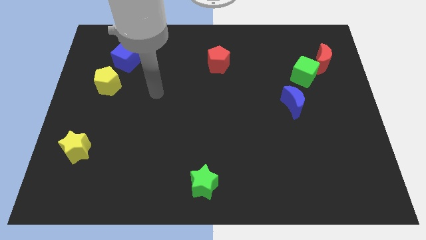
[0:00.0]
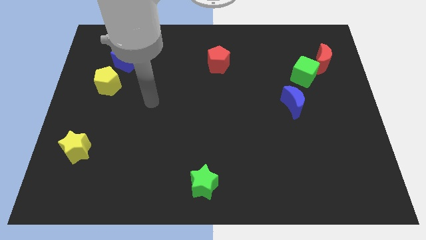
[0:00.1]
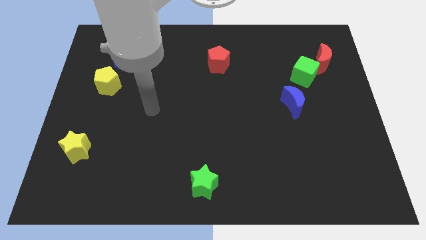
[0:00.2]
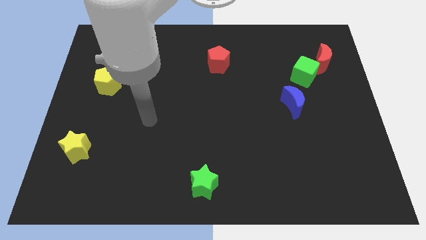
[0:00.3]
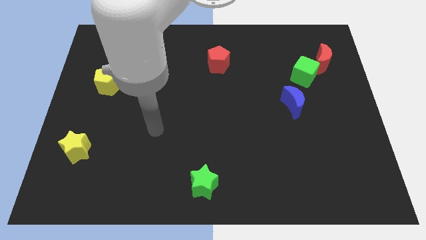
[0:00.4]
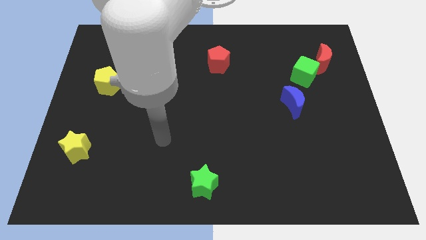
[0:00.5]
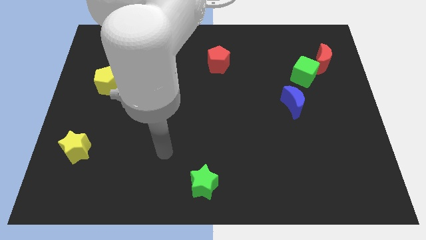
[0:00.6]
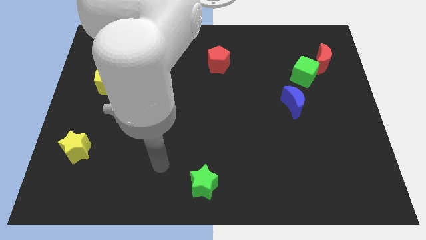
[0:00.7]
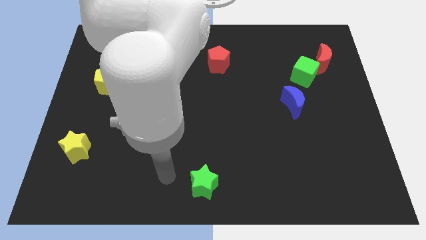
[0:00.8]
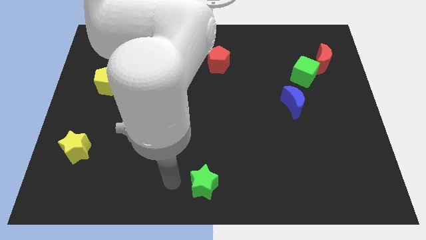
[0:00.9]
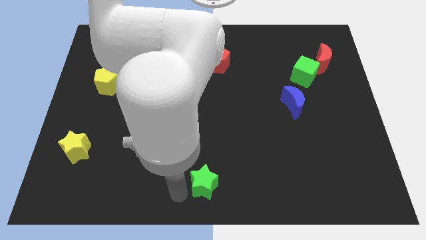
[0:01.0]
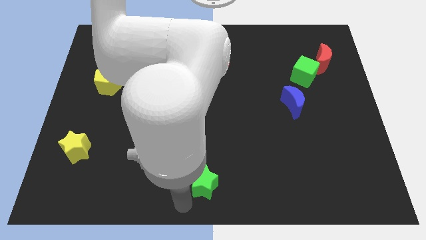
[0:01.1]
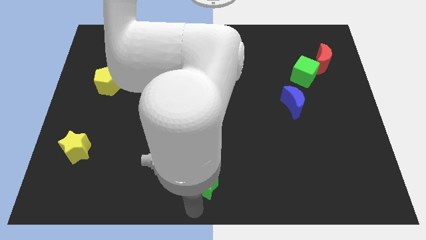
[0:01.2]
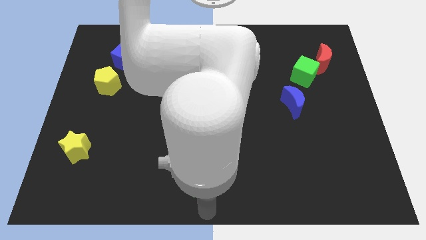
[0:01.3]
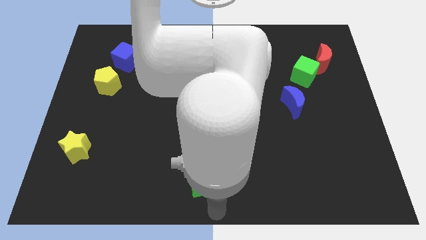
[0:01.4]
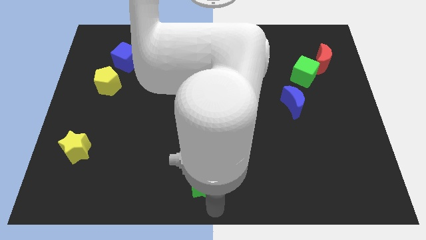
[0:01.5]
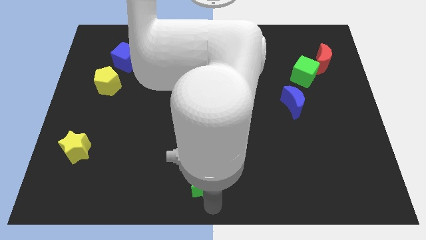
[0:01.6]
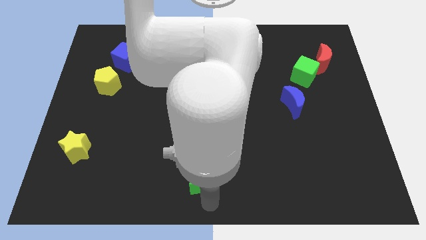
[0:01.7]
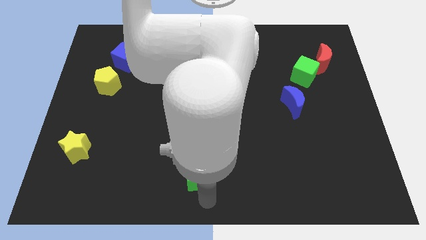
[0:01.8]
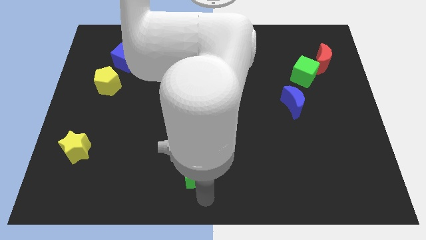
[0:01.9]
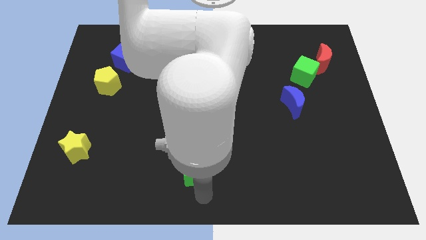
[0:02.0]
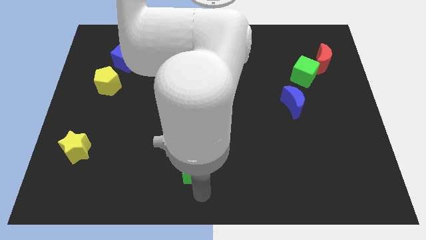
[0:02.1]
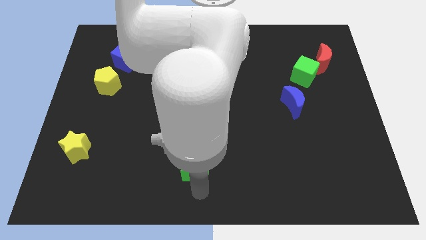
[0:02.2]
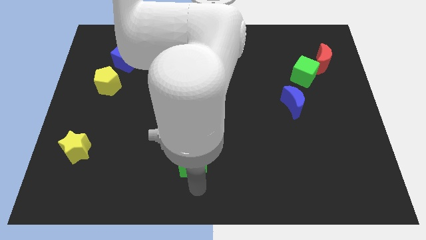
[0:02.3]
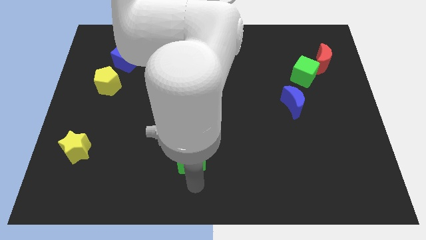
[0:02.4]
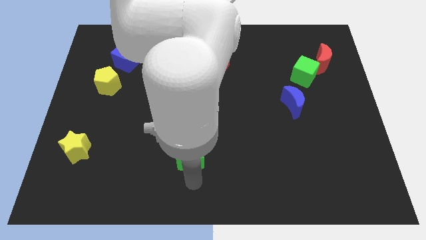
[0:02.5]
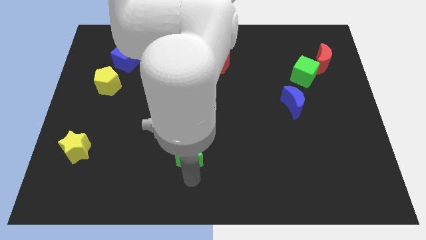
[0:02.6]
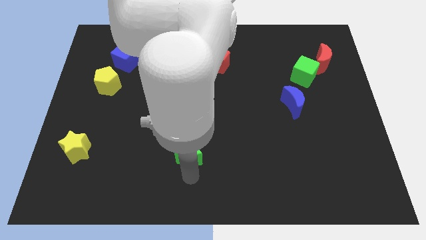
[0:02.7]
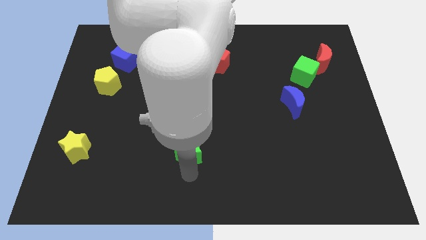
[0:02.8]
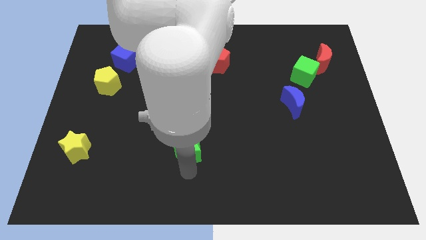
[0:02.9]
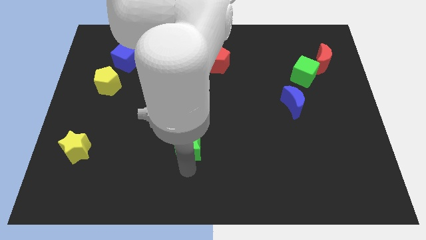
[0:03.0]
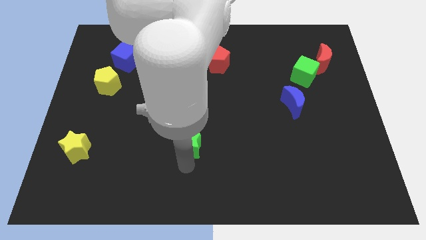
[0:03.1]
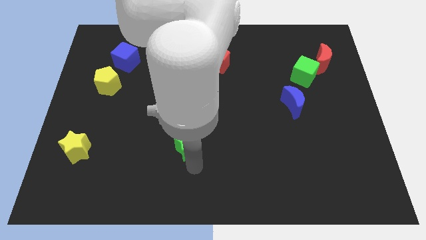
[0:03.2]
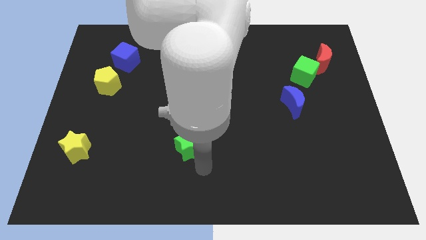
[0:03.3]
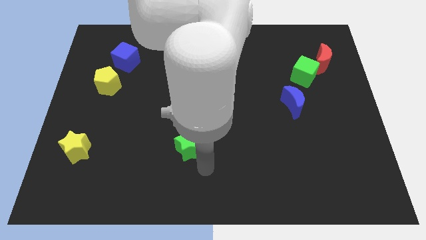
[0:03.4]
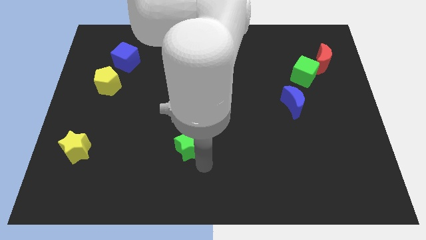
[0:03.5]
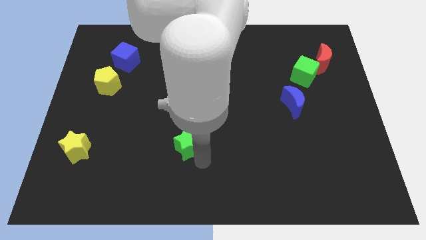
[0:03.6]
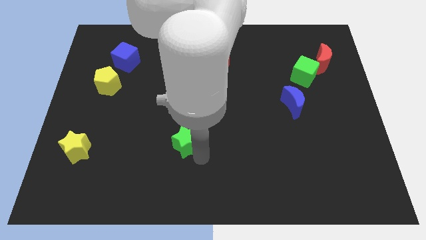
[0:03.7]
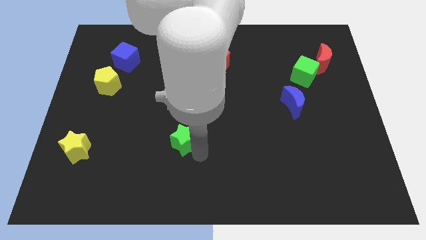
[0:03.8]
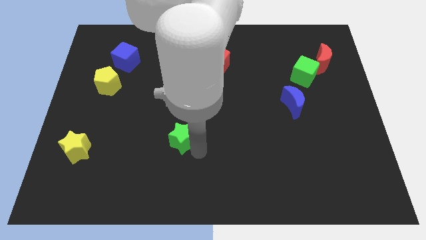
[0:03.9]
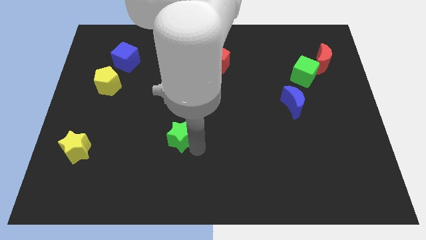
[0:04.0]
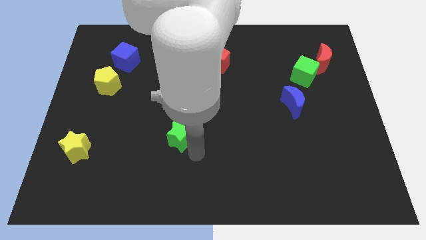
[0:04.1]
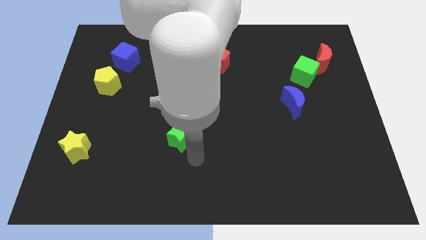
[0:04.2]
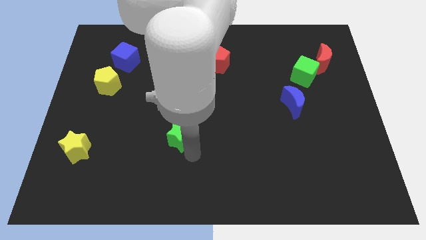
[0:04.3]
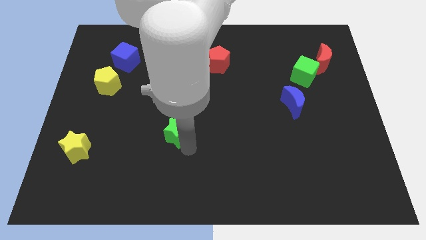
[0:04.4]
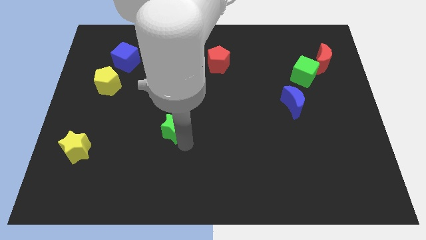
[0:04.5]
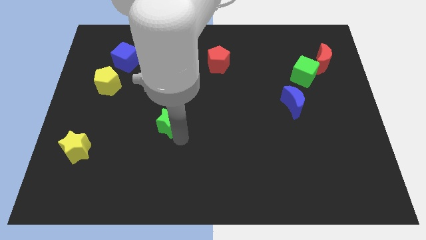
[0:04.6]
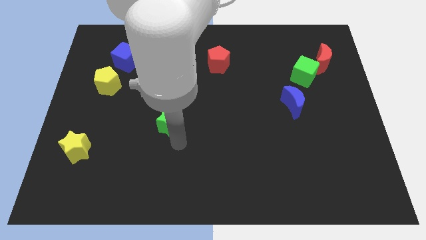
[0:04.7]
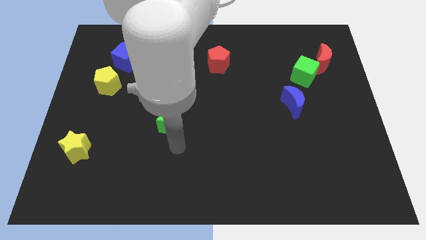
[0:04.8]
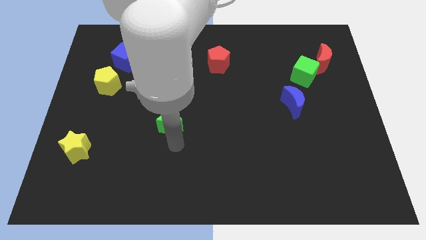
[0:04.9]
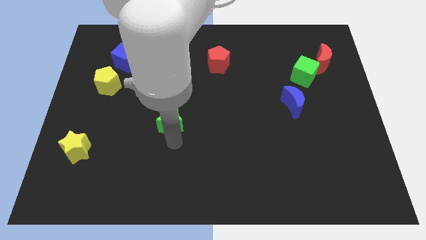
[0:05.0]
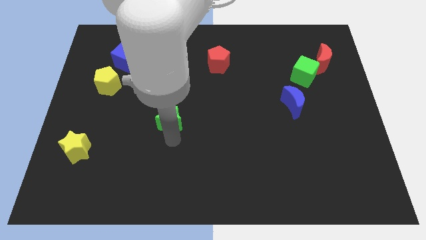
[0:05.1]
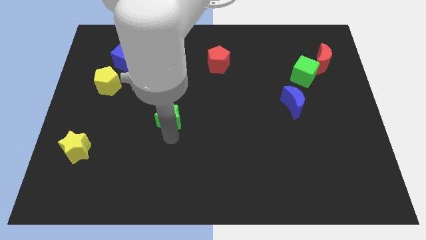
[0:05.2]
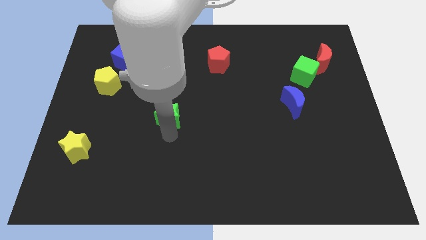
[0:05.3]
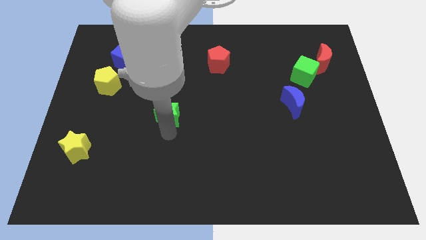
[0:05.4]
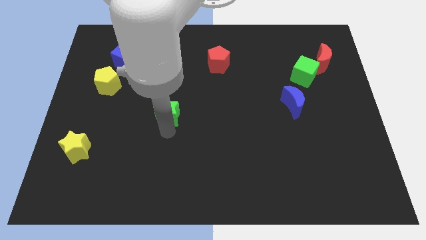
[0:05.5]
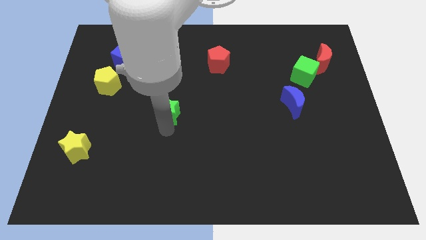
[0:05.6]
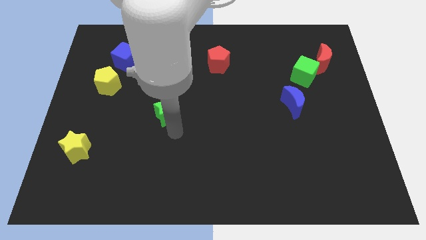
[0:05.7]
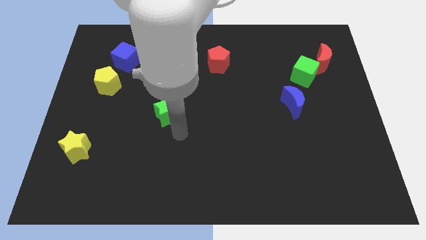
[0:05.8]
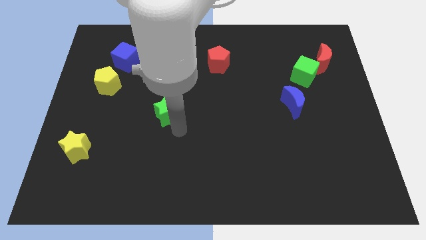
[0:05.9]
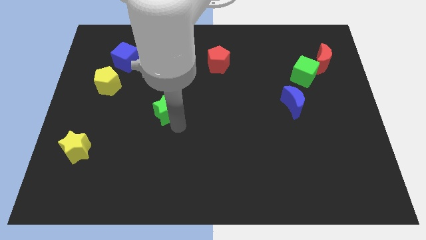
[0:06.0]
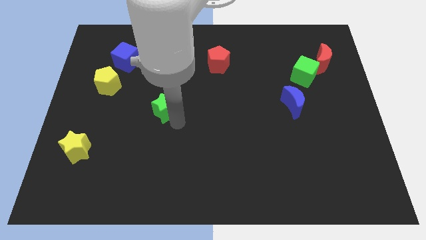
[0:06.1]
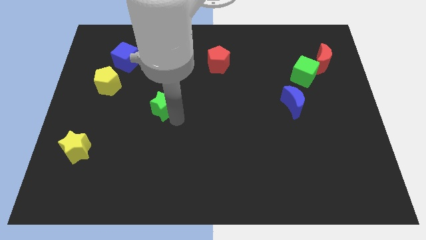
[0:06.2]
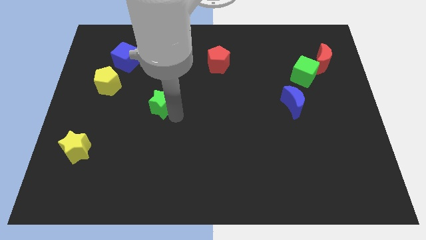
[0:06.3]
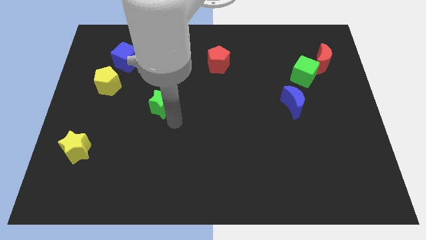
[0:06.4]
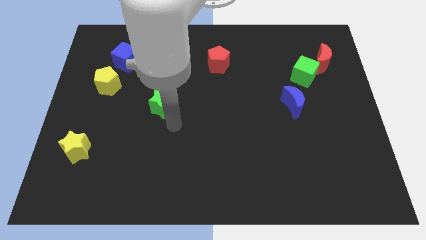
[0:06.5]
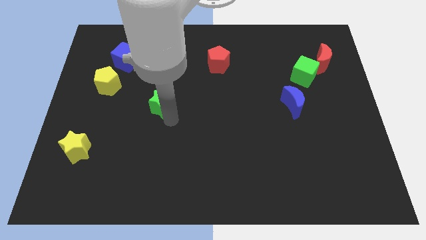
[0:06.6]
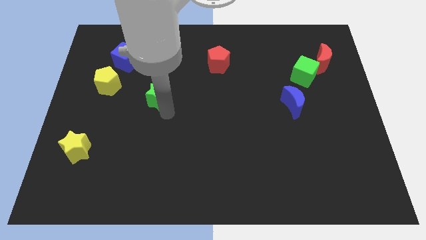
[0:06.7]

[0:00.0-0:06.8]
put the green star to the right of the yellow pentagon
